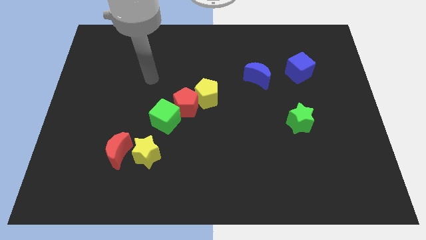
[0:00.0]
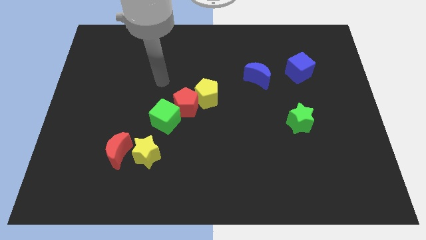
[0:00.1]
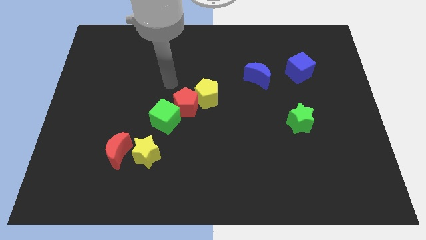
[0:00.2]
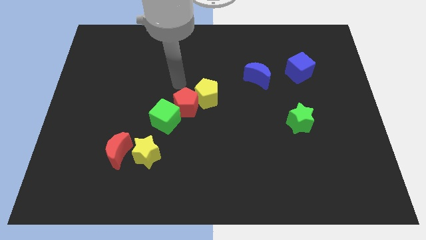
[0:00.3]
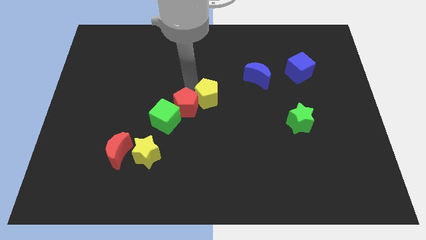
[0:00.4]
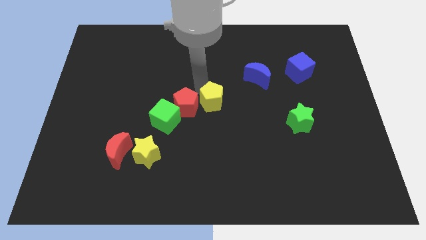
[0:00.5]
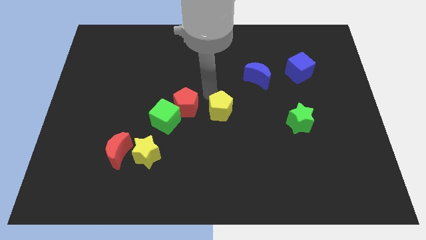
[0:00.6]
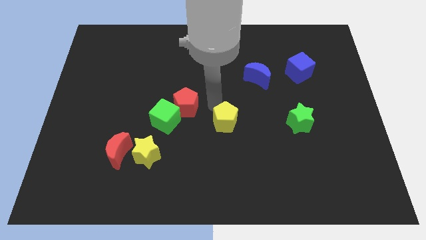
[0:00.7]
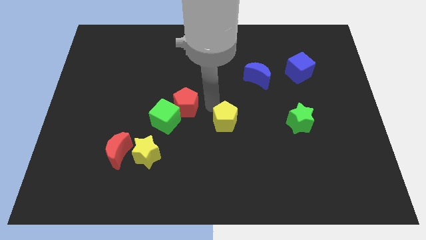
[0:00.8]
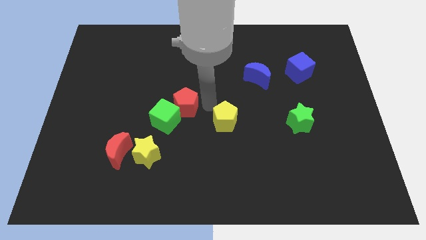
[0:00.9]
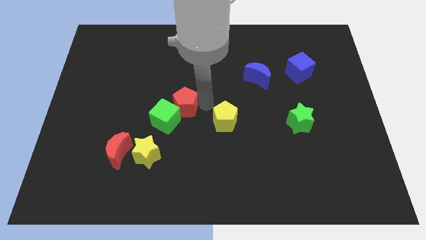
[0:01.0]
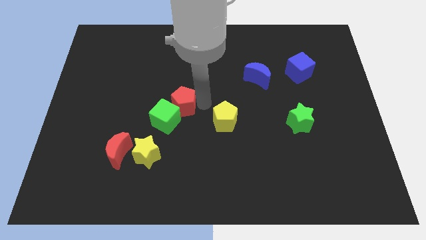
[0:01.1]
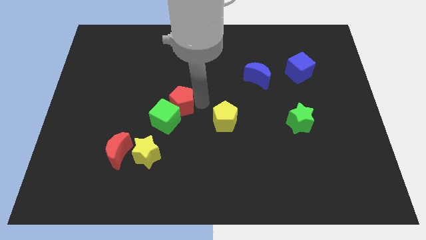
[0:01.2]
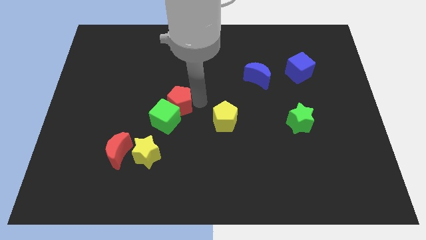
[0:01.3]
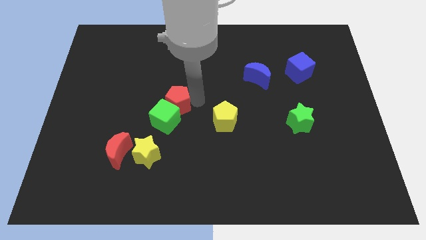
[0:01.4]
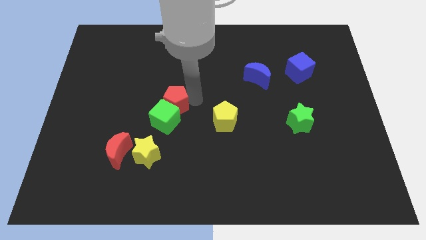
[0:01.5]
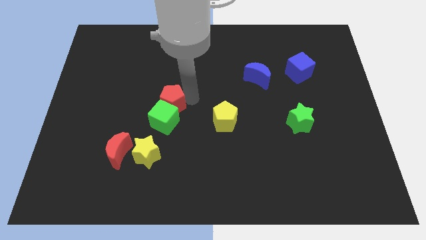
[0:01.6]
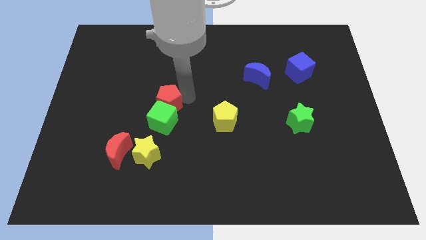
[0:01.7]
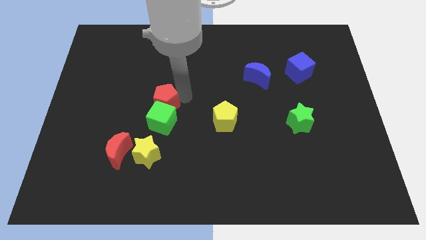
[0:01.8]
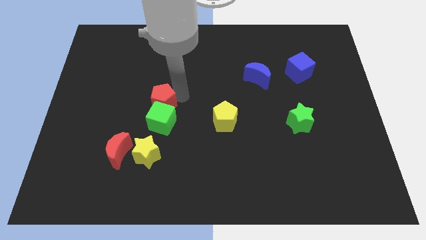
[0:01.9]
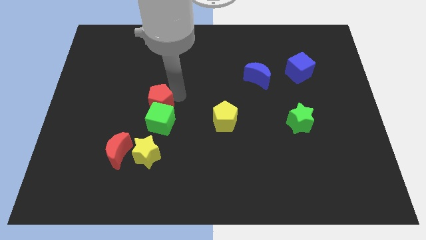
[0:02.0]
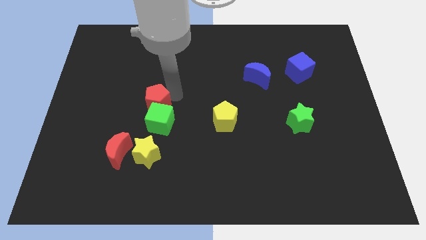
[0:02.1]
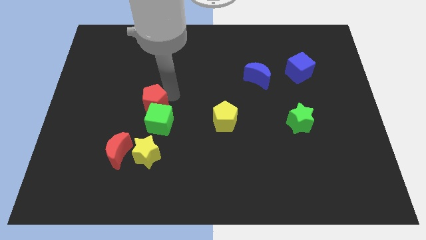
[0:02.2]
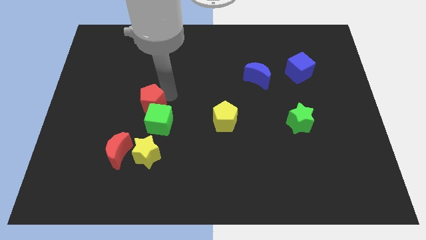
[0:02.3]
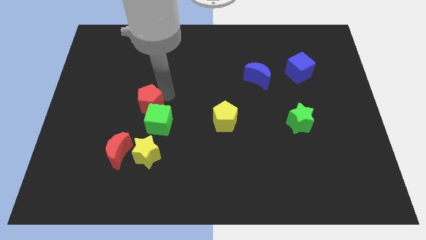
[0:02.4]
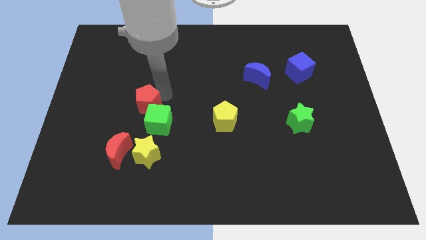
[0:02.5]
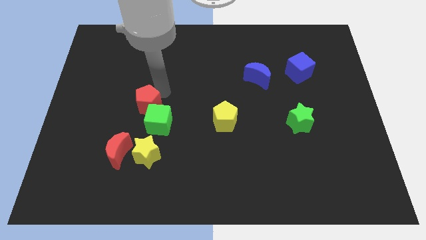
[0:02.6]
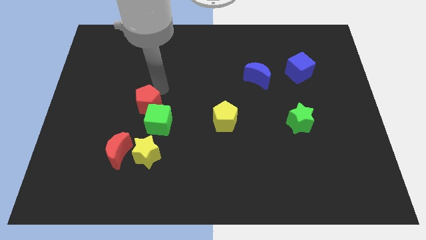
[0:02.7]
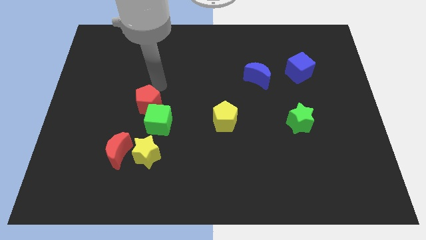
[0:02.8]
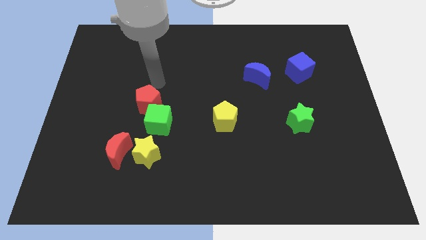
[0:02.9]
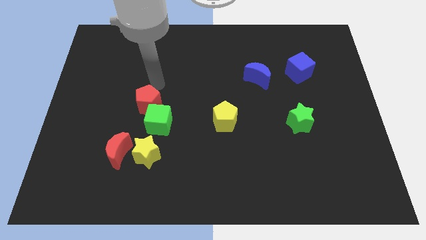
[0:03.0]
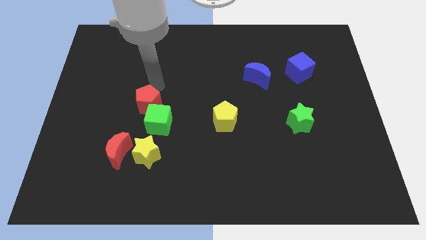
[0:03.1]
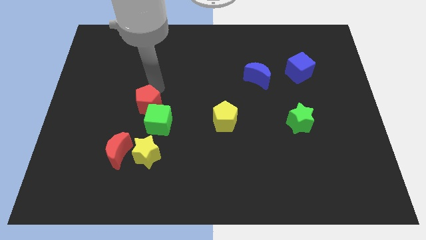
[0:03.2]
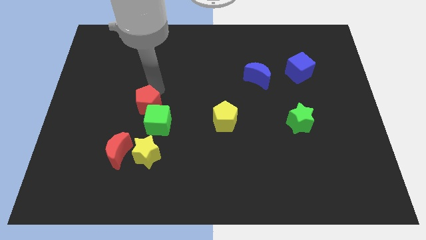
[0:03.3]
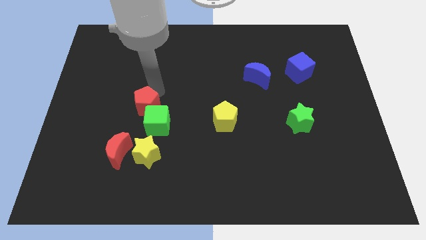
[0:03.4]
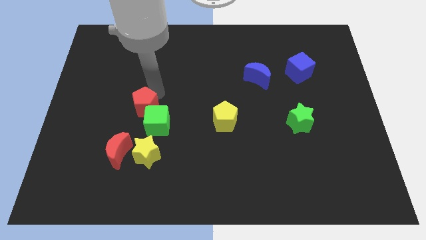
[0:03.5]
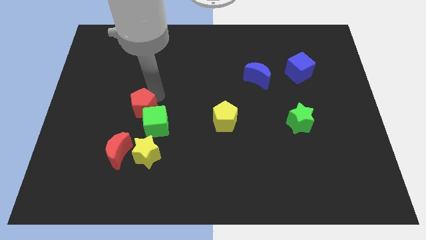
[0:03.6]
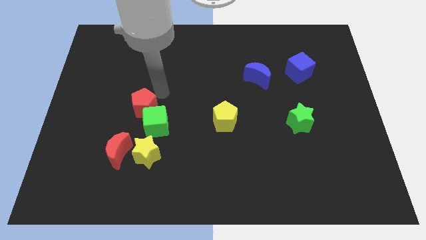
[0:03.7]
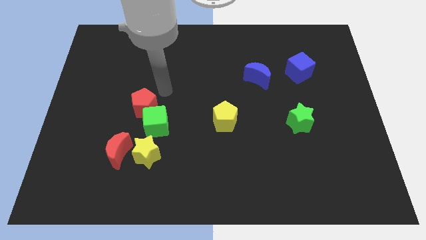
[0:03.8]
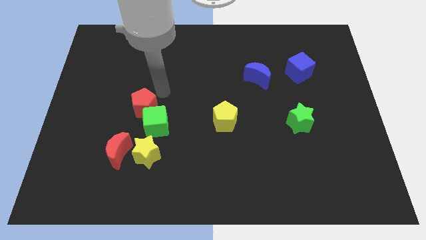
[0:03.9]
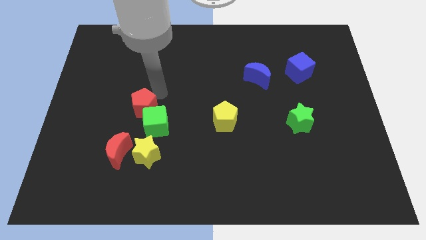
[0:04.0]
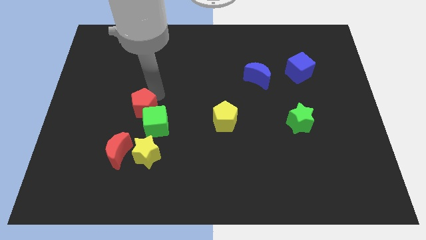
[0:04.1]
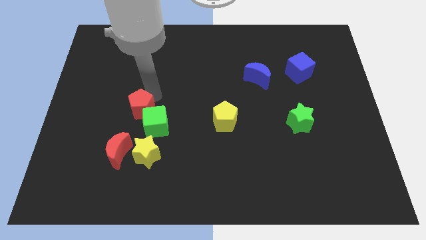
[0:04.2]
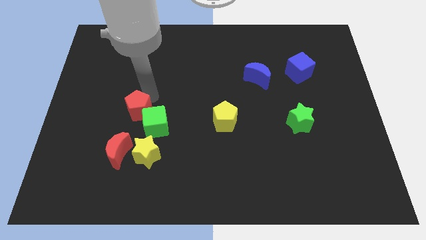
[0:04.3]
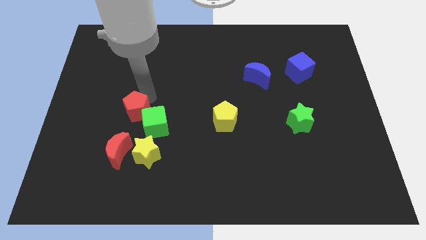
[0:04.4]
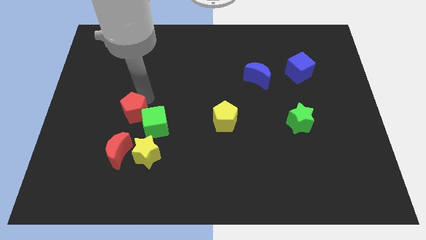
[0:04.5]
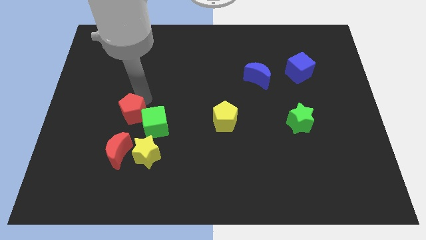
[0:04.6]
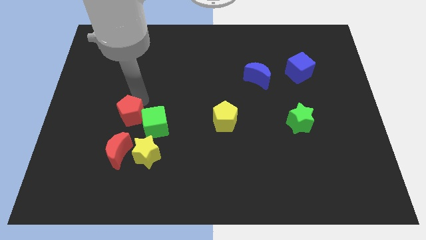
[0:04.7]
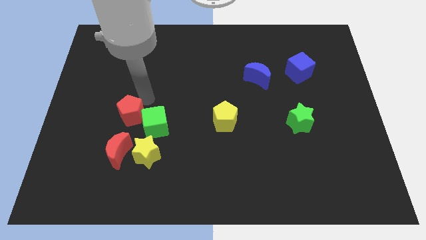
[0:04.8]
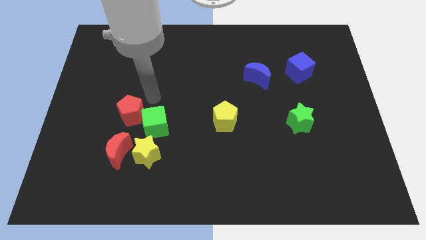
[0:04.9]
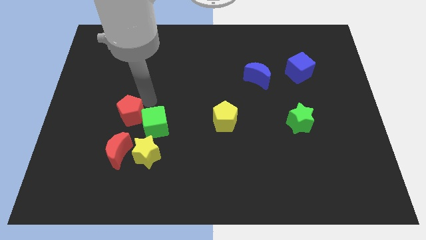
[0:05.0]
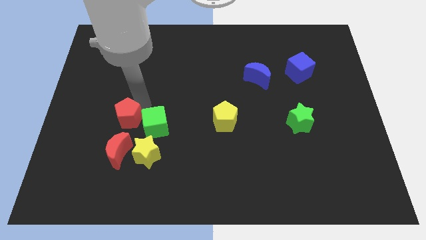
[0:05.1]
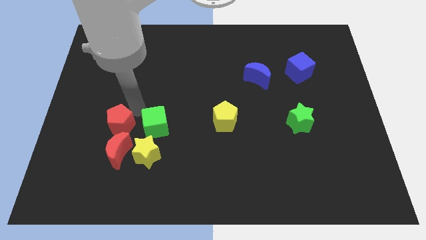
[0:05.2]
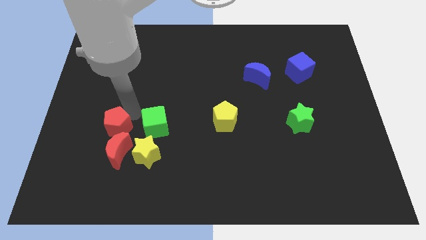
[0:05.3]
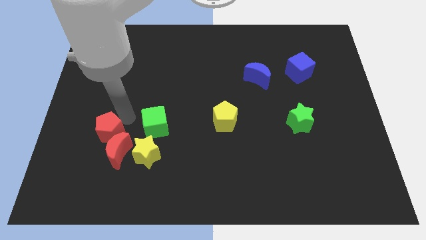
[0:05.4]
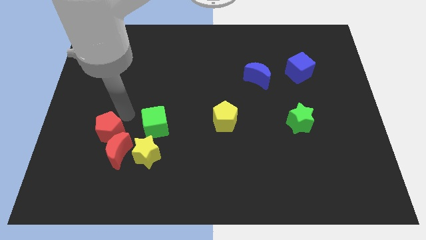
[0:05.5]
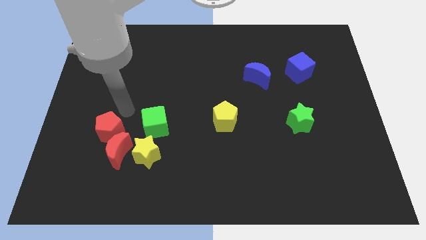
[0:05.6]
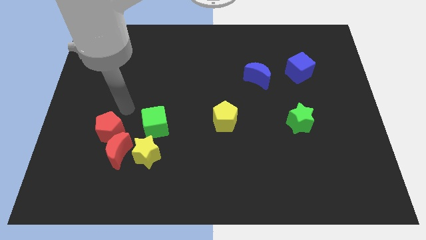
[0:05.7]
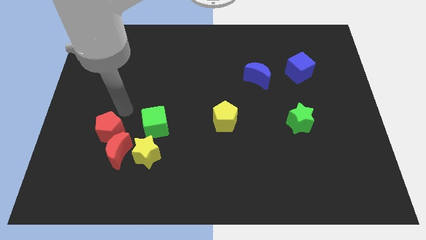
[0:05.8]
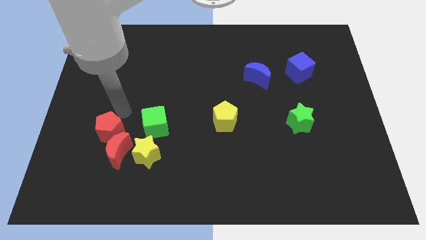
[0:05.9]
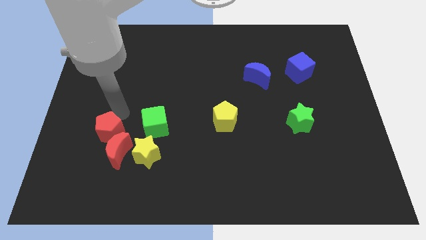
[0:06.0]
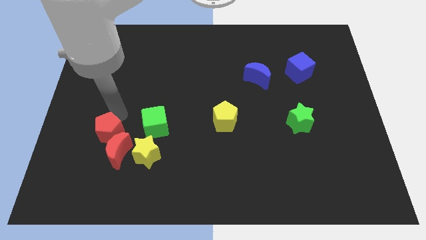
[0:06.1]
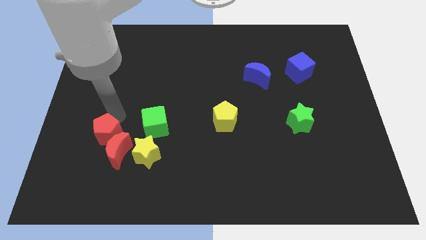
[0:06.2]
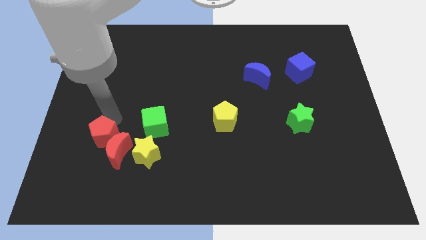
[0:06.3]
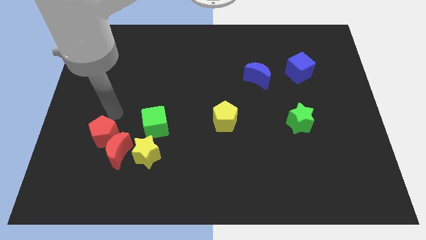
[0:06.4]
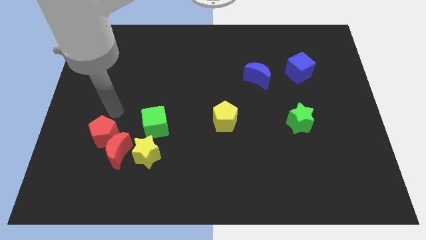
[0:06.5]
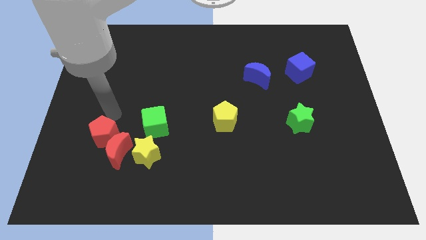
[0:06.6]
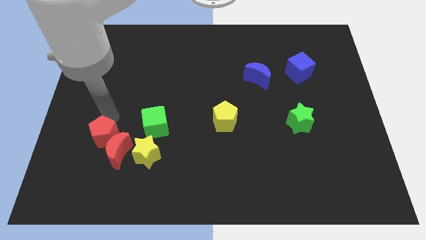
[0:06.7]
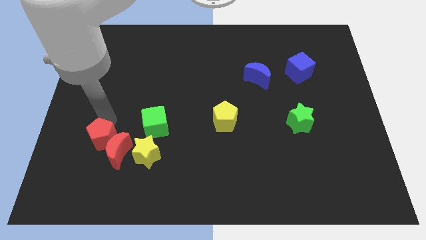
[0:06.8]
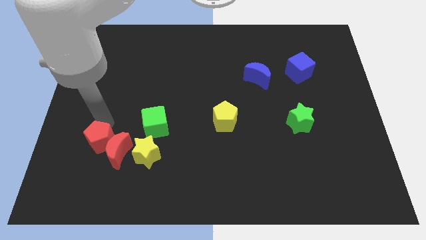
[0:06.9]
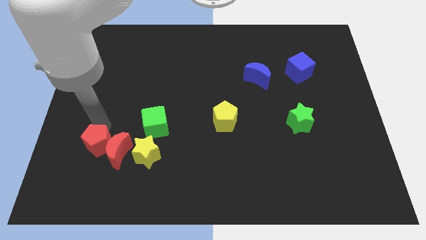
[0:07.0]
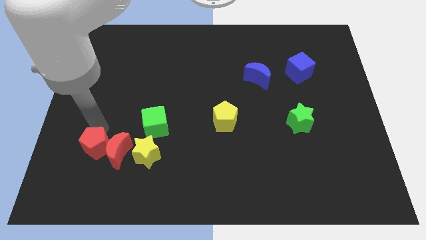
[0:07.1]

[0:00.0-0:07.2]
move the red pentagon to the bottom left of the red moon

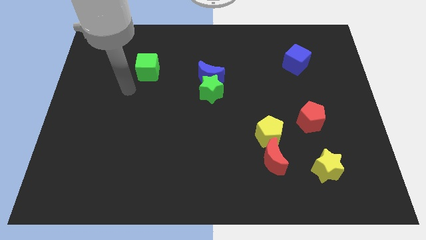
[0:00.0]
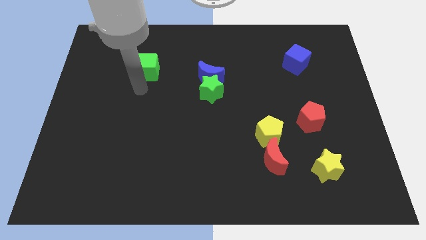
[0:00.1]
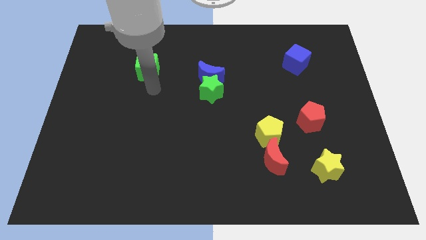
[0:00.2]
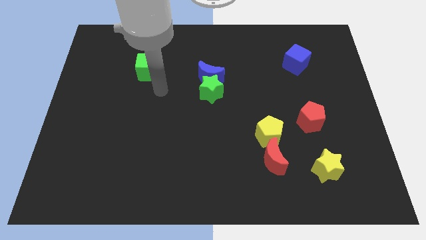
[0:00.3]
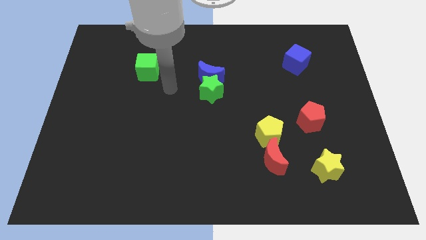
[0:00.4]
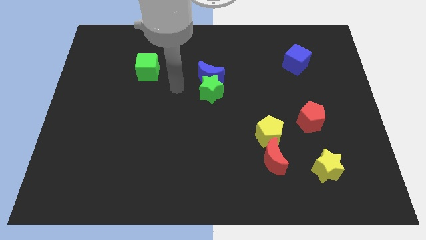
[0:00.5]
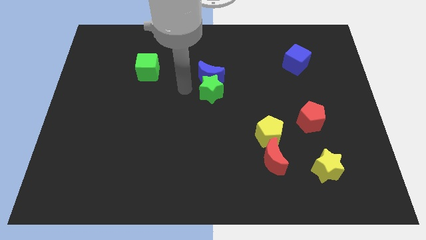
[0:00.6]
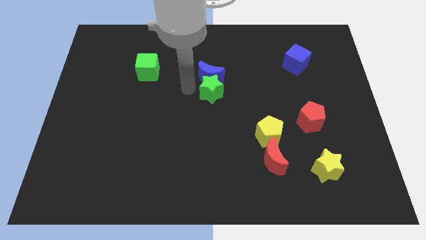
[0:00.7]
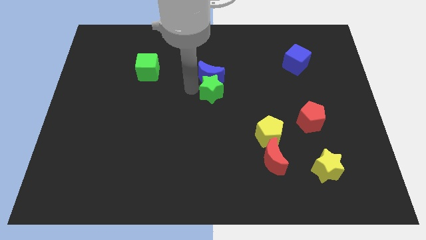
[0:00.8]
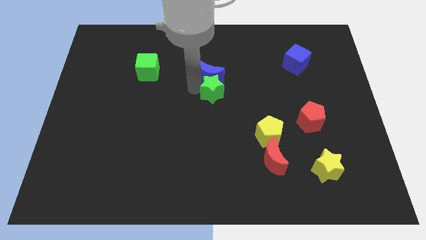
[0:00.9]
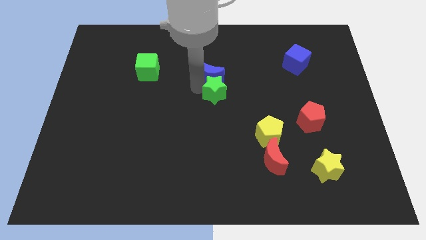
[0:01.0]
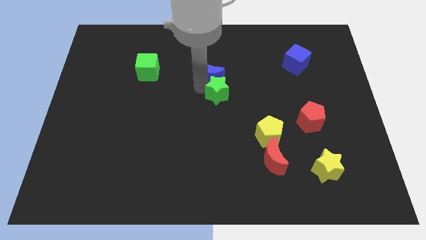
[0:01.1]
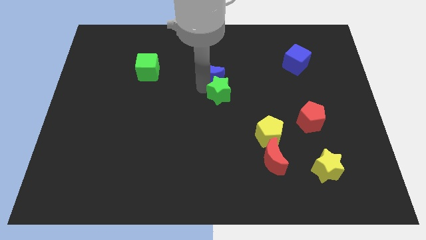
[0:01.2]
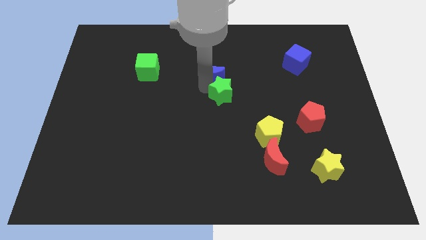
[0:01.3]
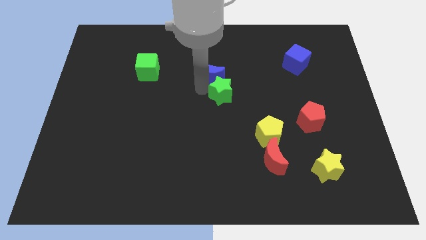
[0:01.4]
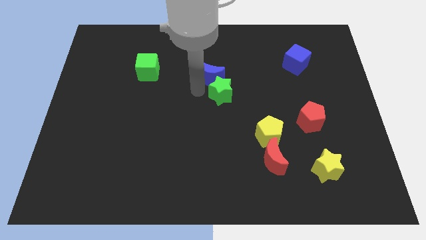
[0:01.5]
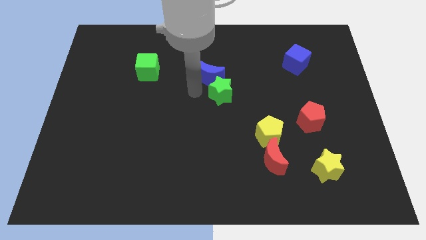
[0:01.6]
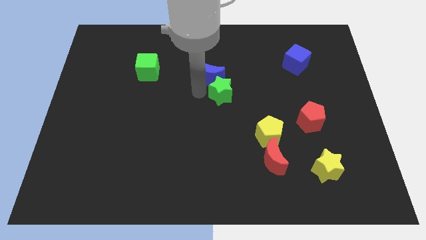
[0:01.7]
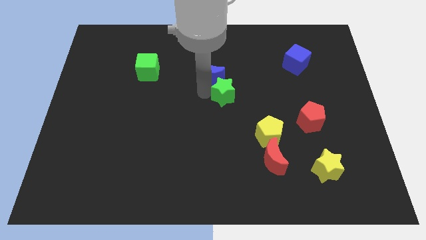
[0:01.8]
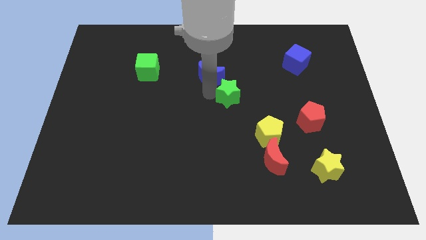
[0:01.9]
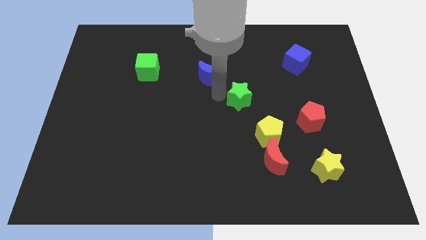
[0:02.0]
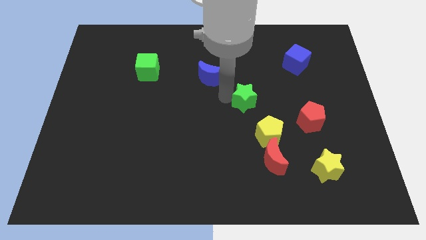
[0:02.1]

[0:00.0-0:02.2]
move the green star to the top side of the yellow pentagon
